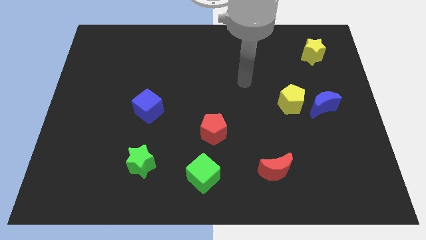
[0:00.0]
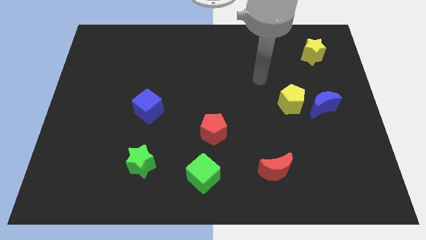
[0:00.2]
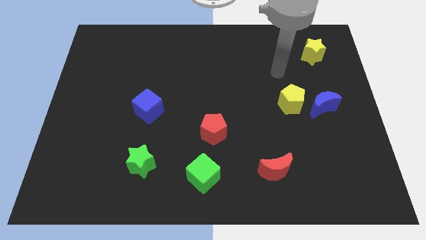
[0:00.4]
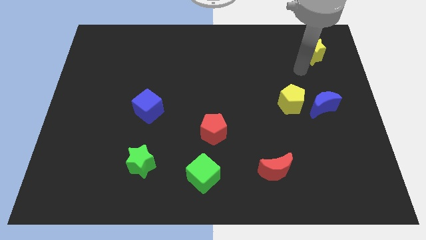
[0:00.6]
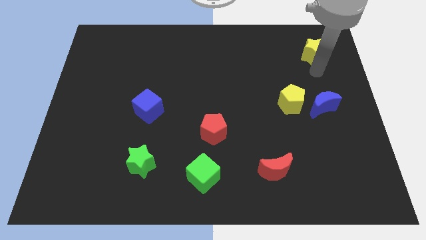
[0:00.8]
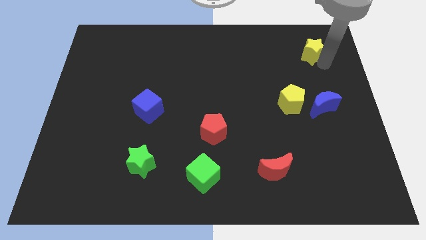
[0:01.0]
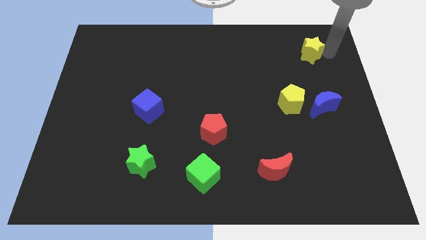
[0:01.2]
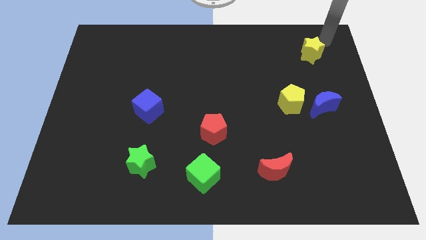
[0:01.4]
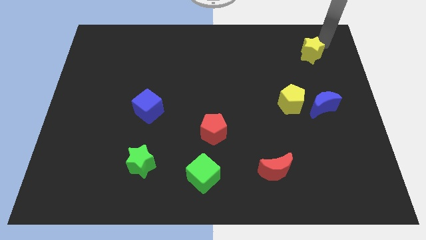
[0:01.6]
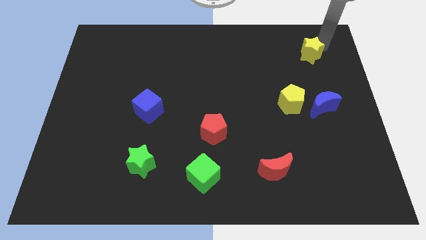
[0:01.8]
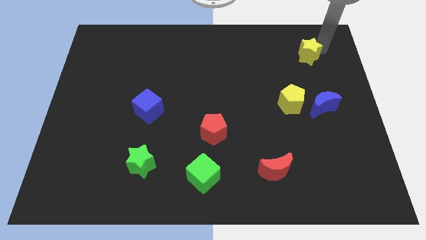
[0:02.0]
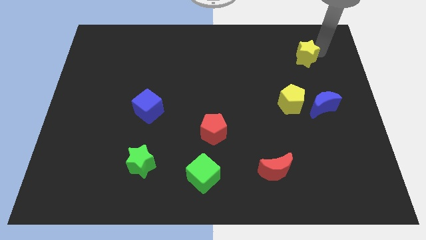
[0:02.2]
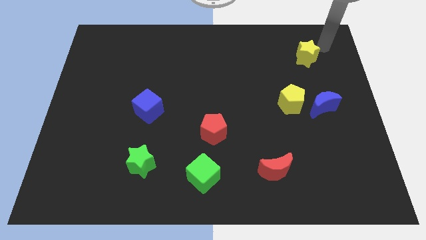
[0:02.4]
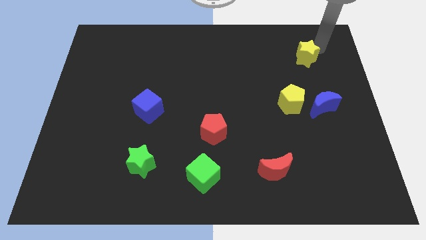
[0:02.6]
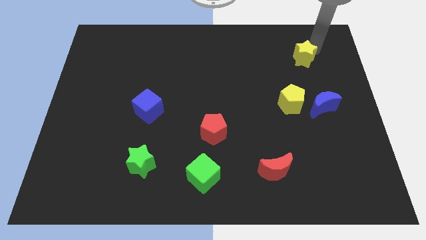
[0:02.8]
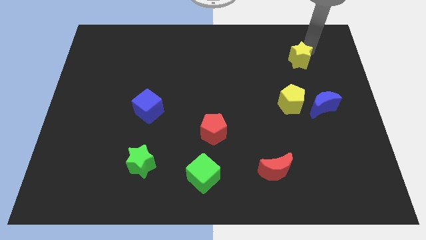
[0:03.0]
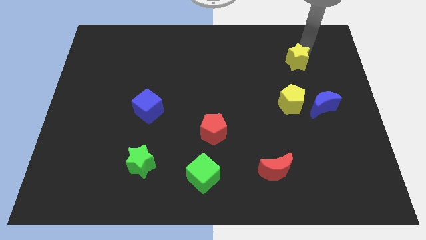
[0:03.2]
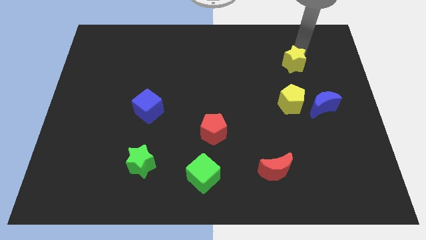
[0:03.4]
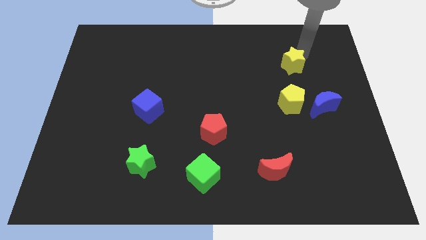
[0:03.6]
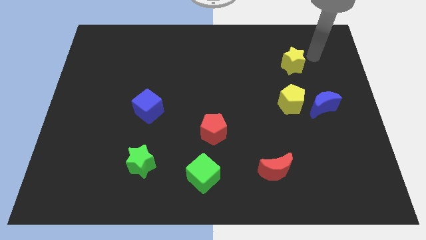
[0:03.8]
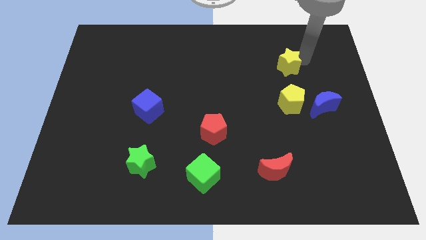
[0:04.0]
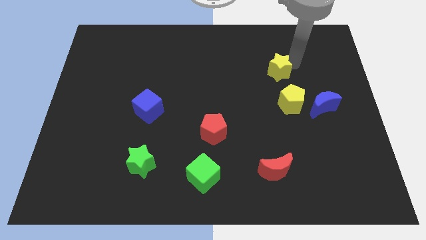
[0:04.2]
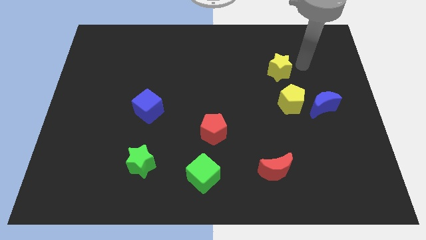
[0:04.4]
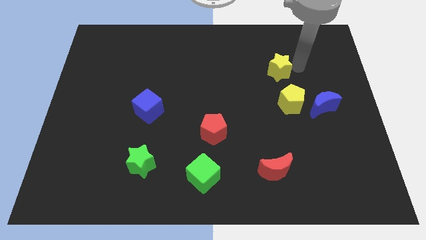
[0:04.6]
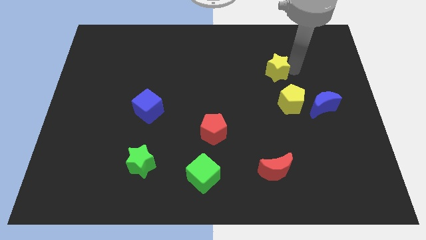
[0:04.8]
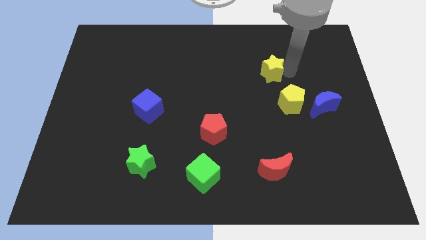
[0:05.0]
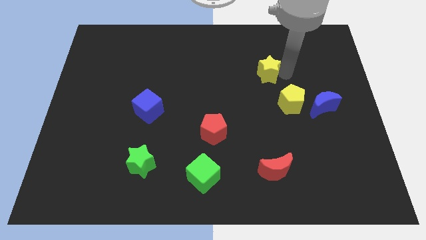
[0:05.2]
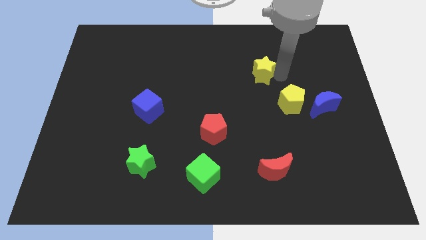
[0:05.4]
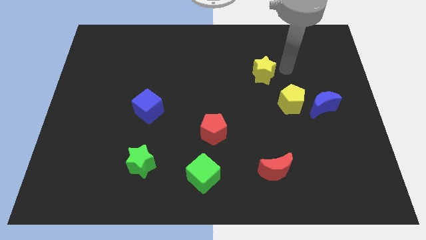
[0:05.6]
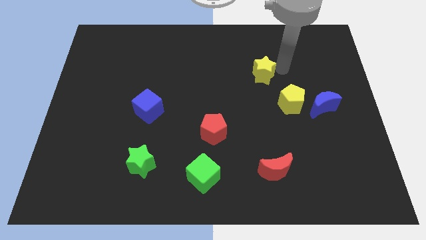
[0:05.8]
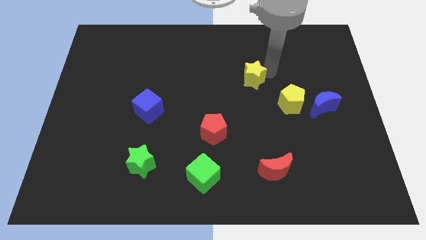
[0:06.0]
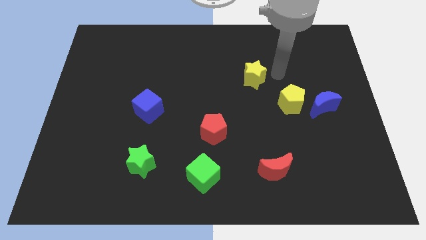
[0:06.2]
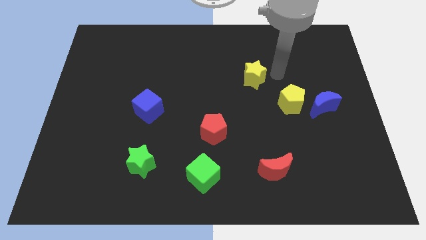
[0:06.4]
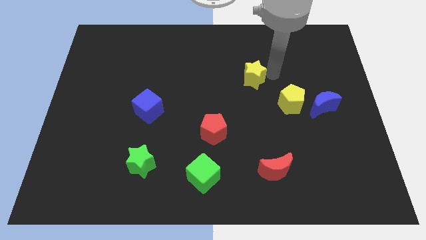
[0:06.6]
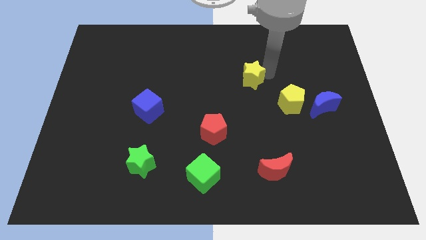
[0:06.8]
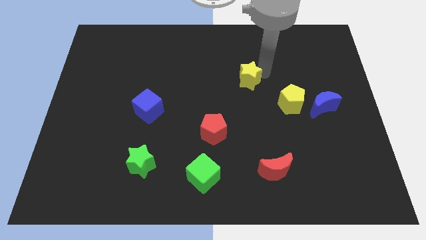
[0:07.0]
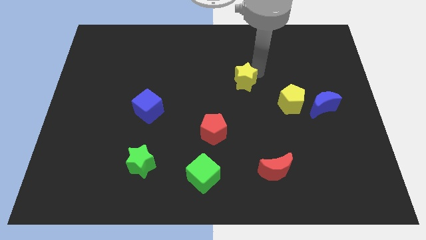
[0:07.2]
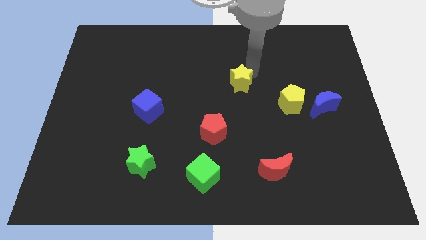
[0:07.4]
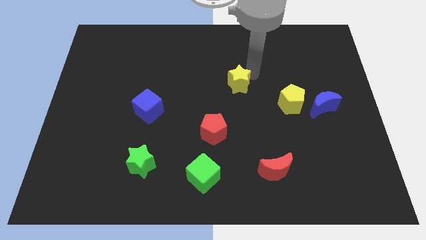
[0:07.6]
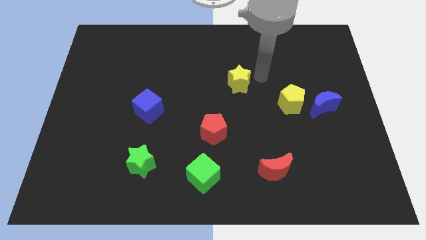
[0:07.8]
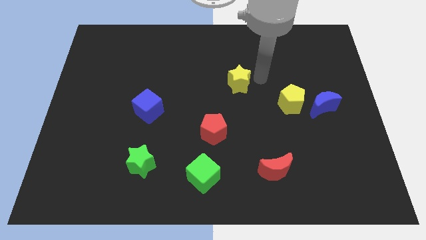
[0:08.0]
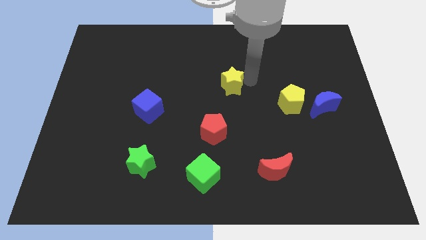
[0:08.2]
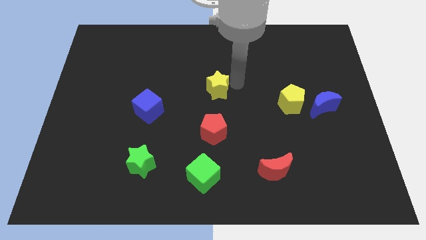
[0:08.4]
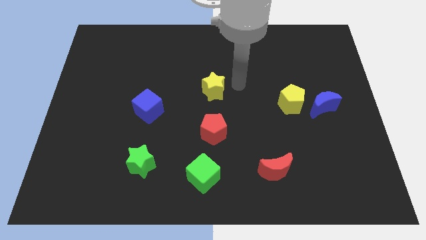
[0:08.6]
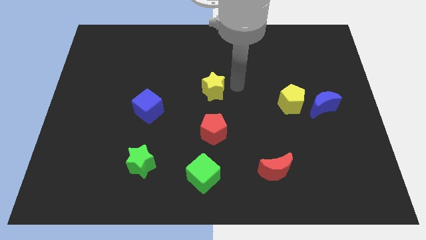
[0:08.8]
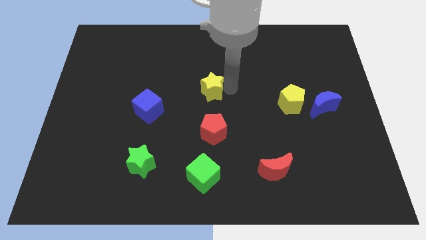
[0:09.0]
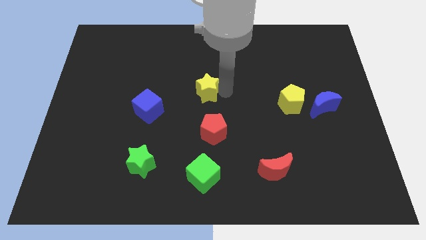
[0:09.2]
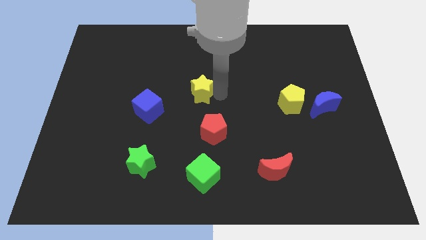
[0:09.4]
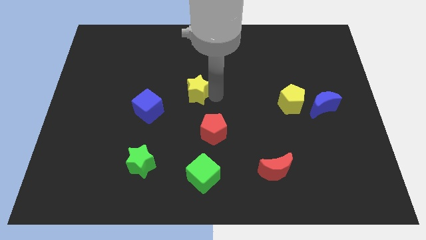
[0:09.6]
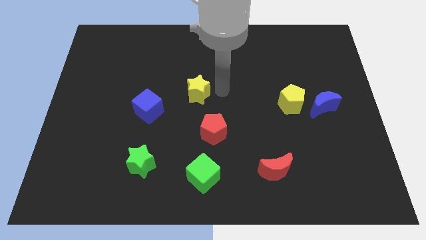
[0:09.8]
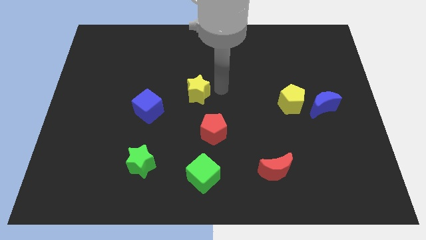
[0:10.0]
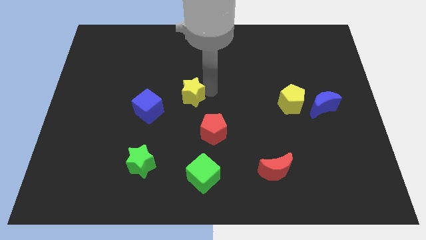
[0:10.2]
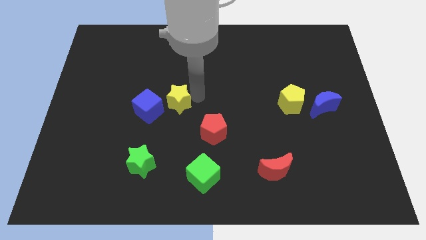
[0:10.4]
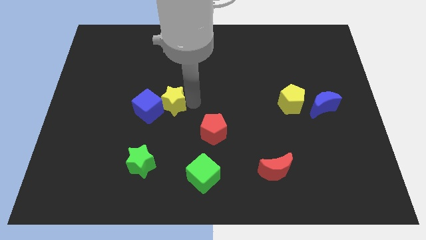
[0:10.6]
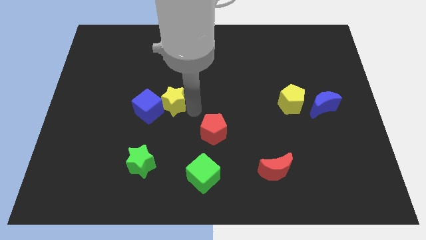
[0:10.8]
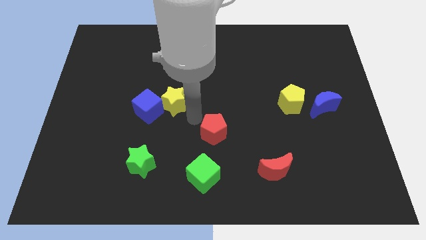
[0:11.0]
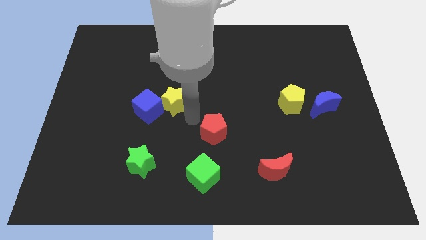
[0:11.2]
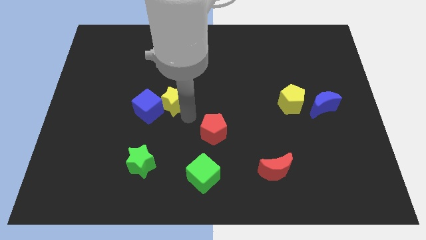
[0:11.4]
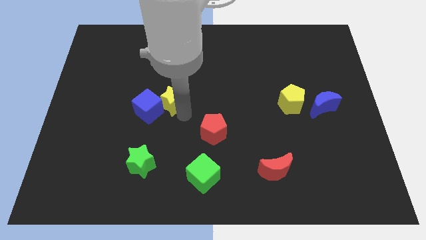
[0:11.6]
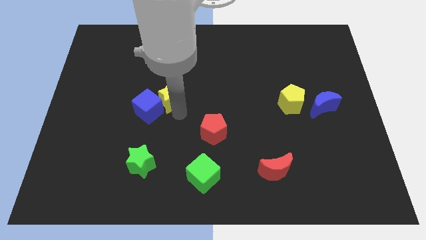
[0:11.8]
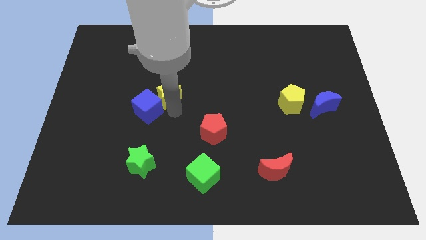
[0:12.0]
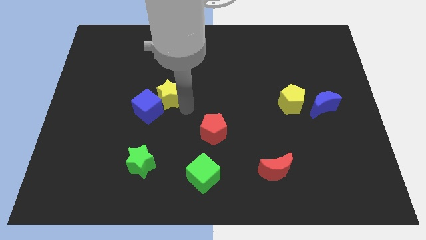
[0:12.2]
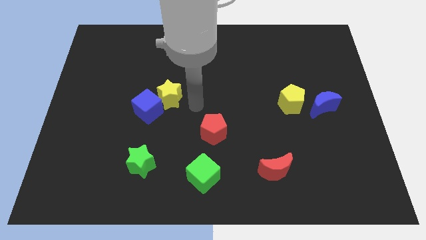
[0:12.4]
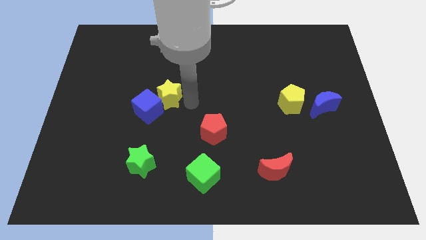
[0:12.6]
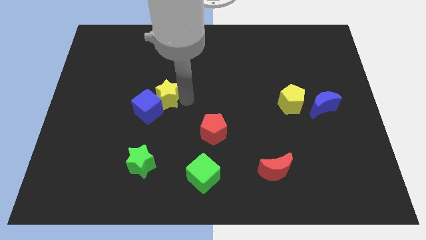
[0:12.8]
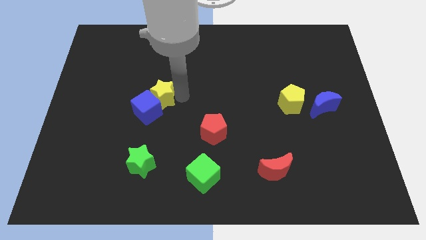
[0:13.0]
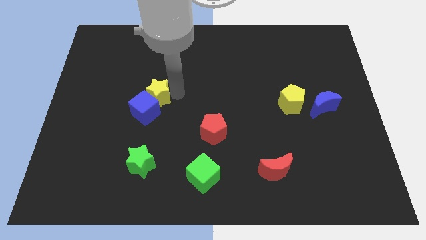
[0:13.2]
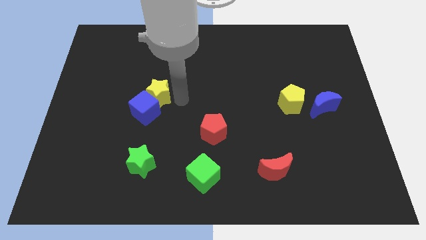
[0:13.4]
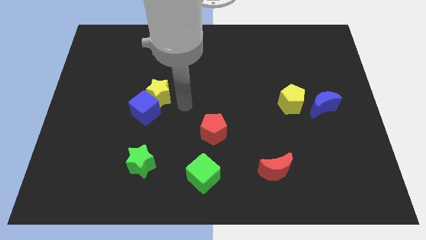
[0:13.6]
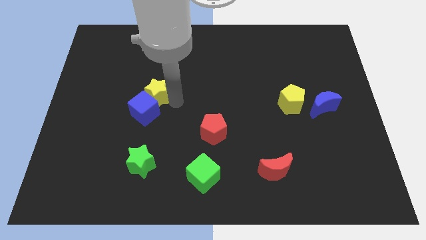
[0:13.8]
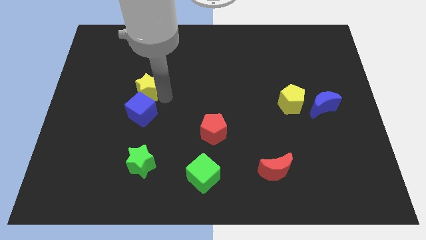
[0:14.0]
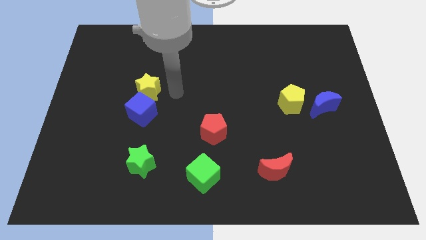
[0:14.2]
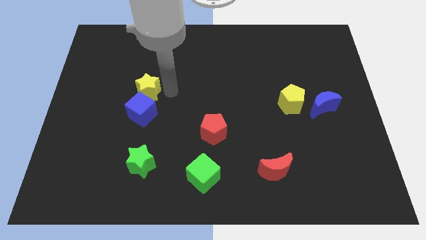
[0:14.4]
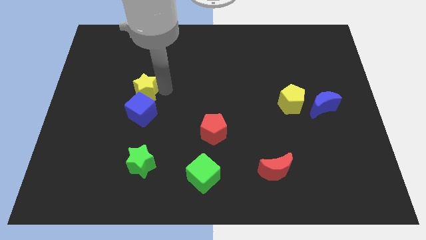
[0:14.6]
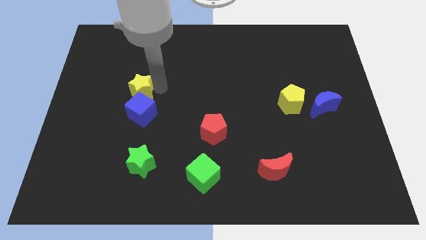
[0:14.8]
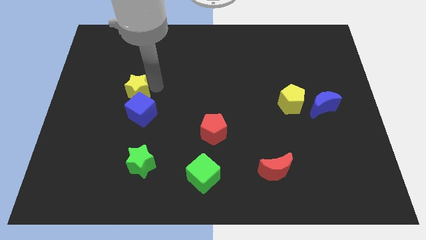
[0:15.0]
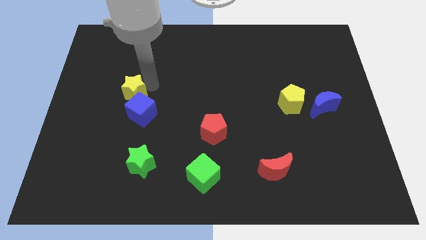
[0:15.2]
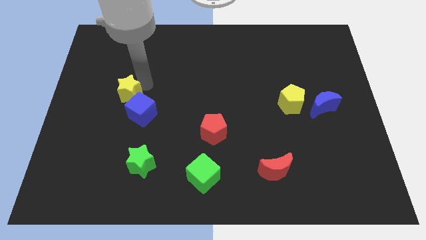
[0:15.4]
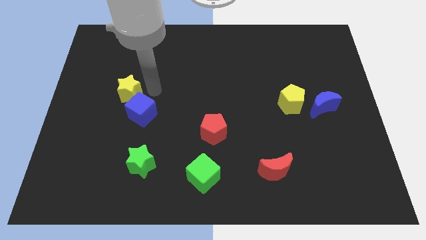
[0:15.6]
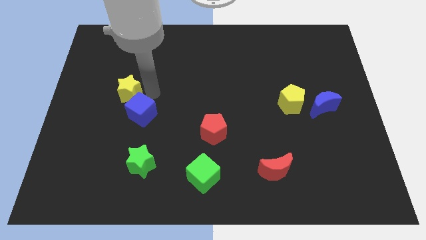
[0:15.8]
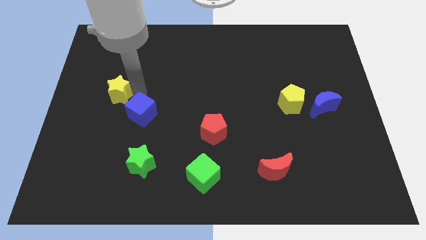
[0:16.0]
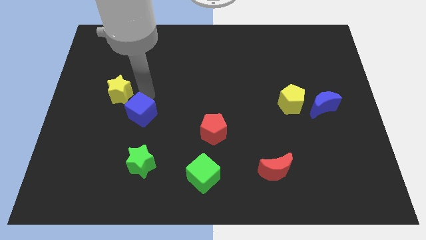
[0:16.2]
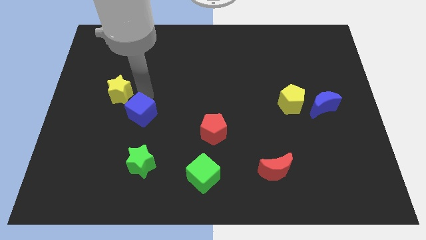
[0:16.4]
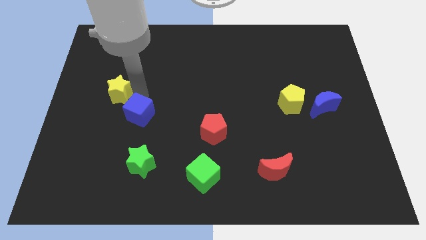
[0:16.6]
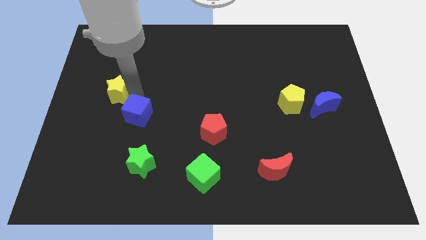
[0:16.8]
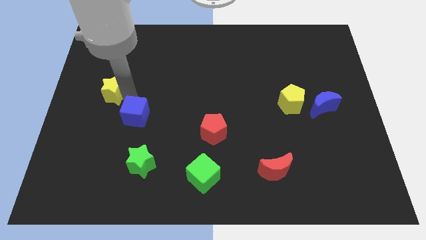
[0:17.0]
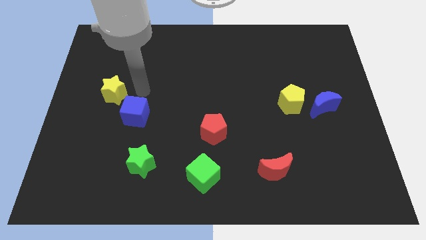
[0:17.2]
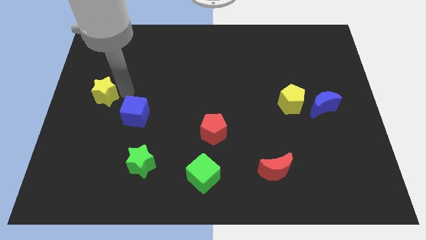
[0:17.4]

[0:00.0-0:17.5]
put the yellow star to the left side
